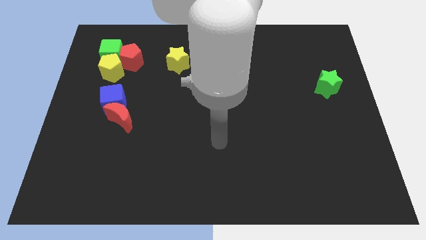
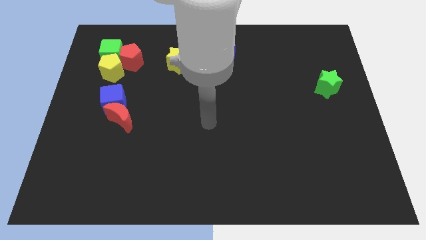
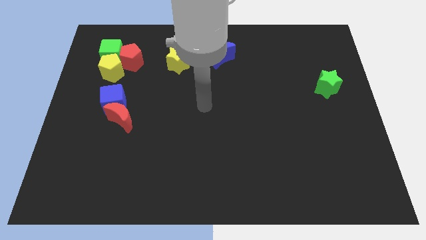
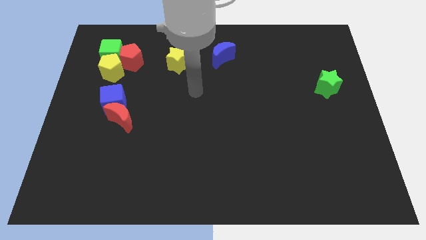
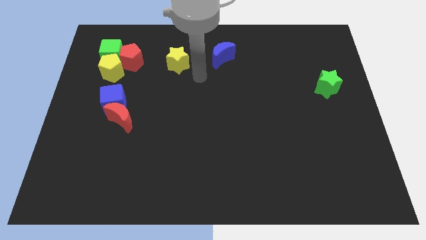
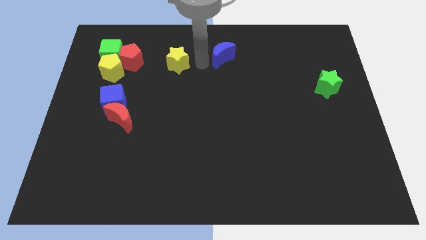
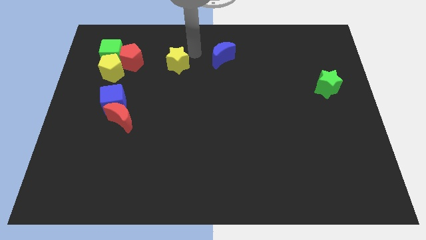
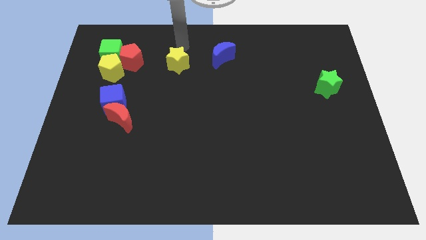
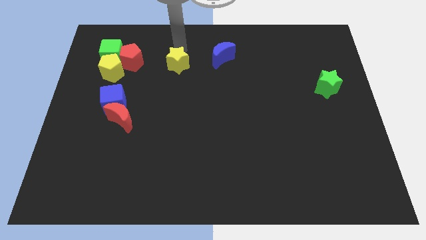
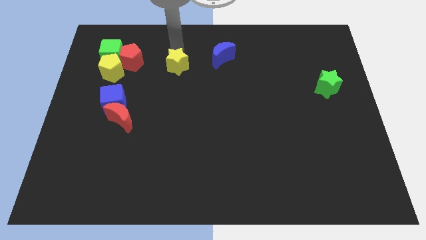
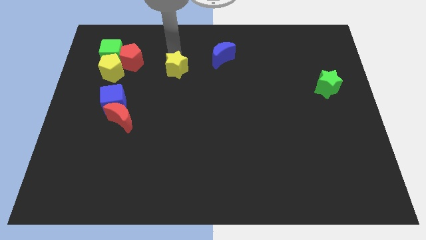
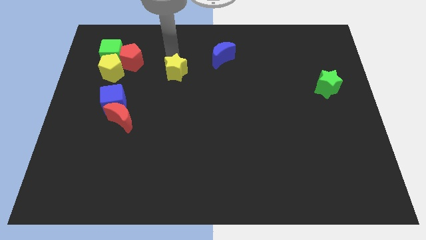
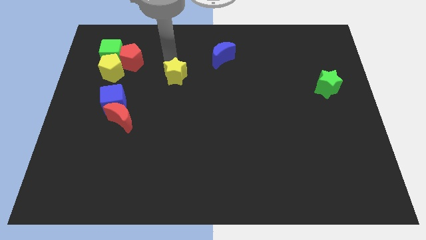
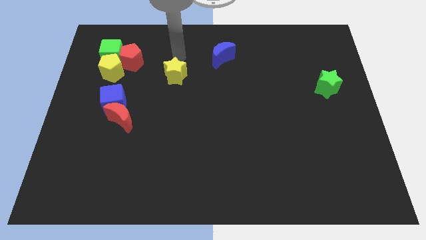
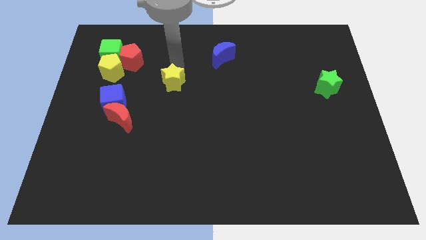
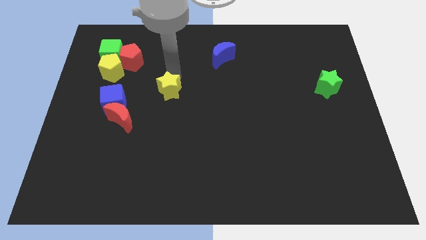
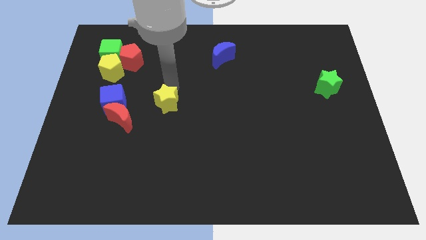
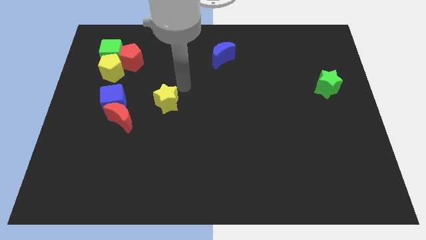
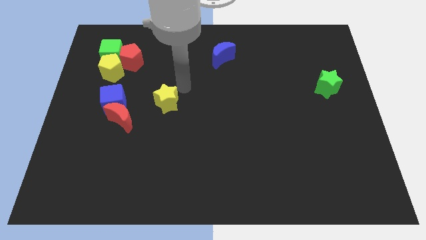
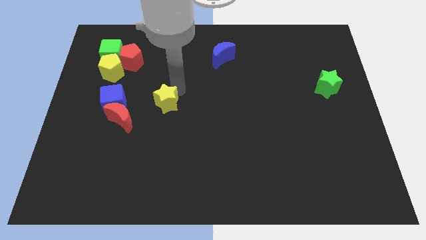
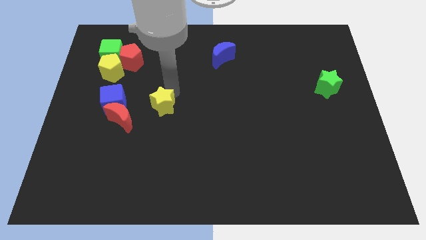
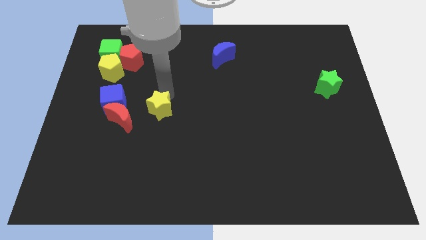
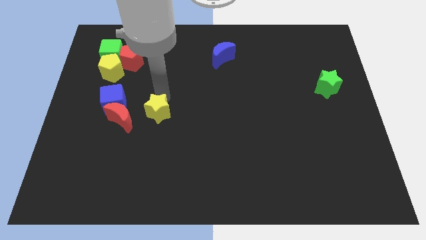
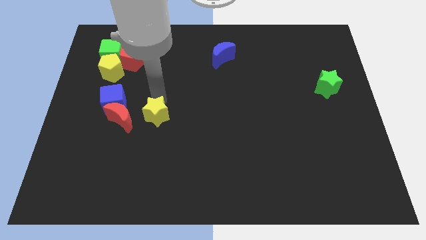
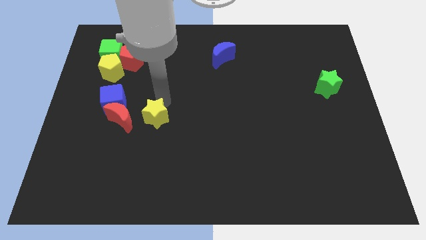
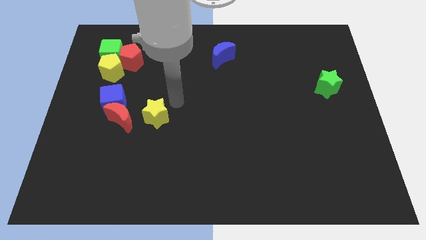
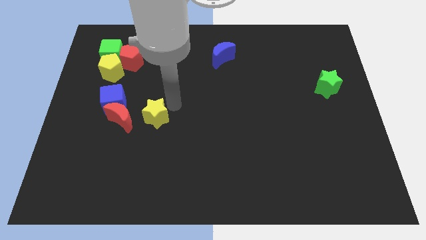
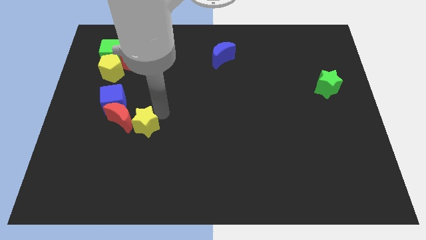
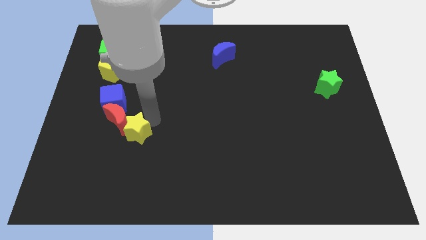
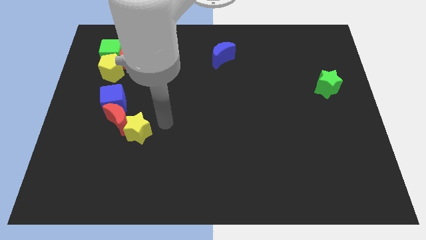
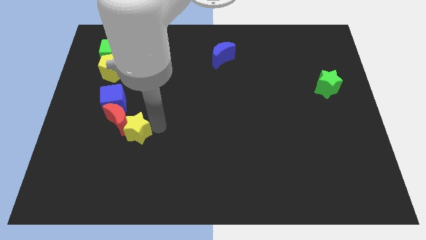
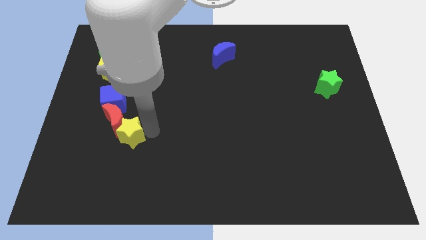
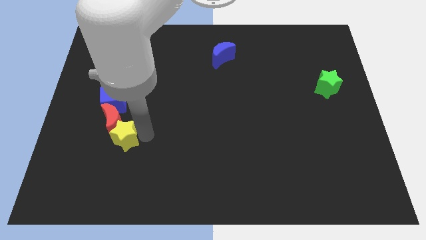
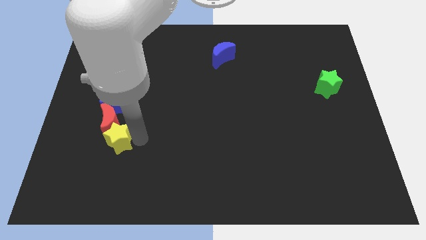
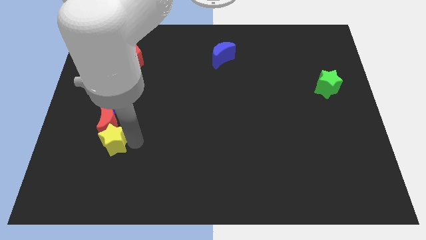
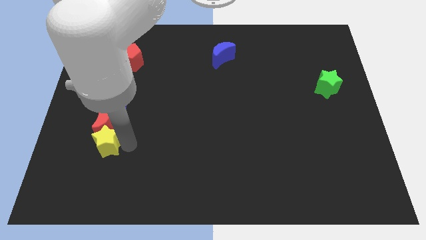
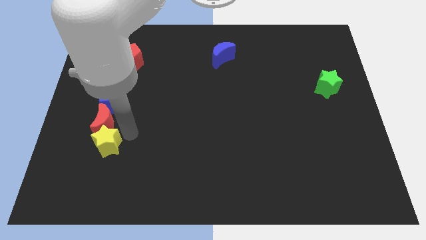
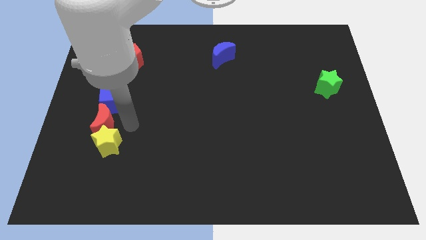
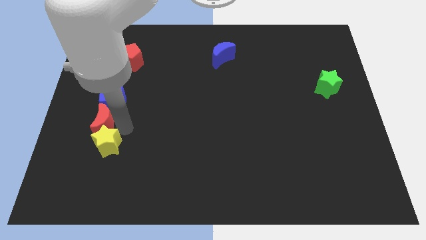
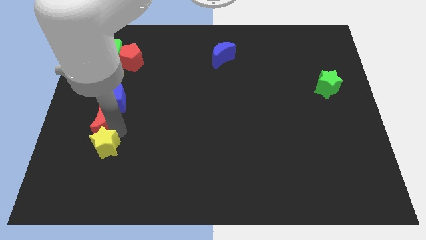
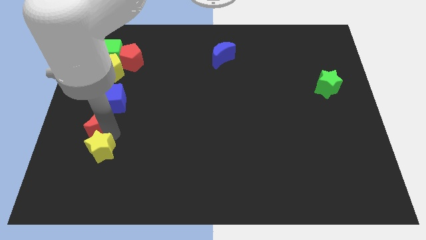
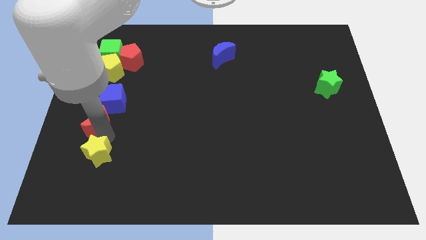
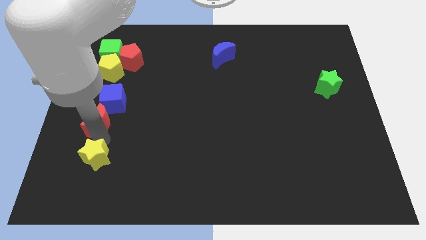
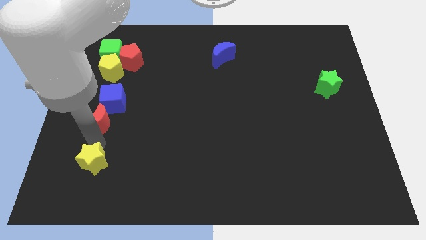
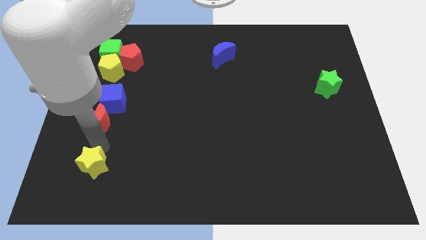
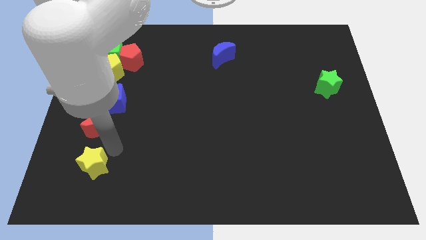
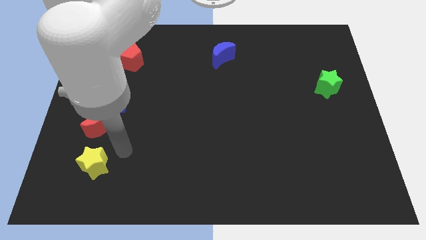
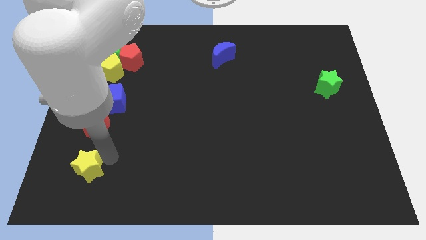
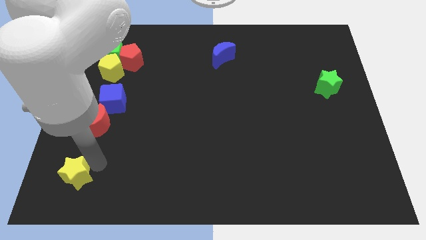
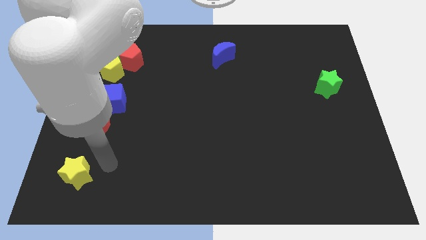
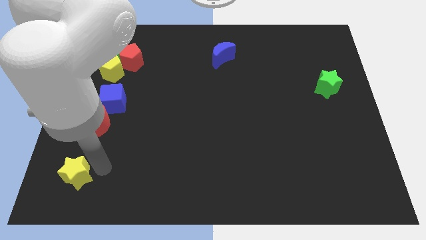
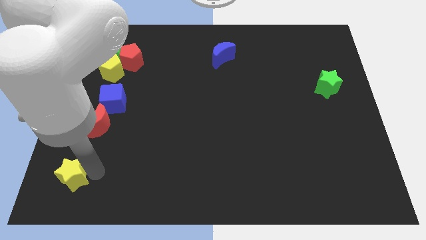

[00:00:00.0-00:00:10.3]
push the yellow star to the lower left corner

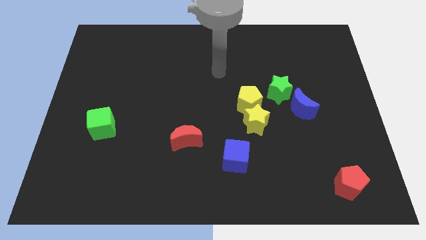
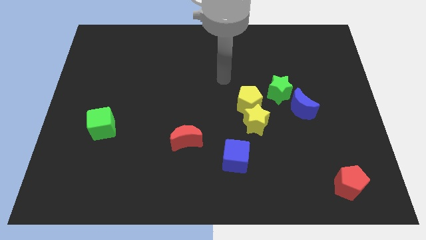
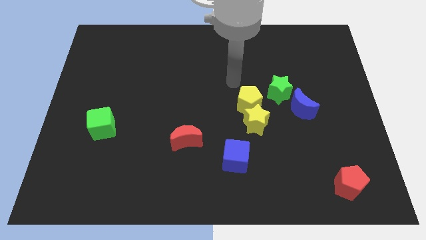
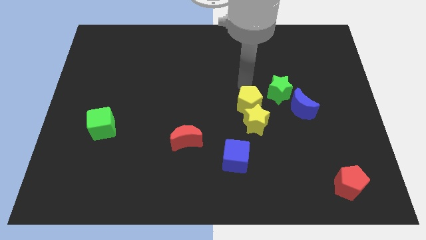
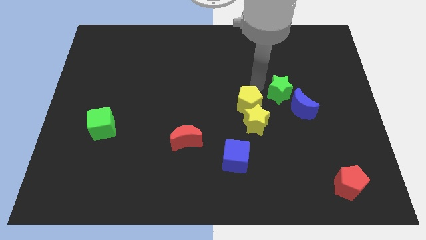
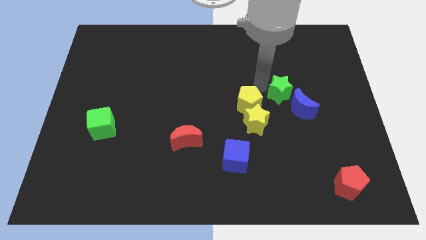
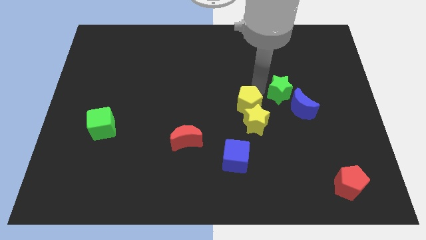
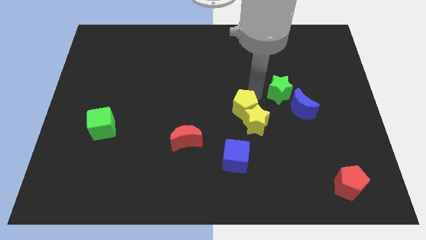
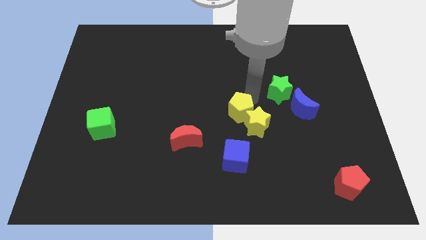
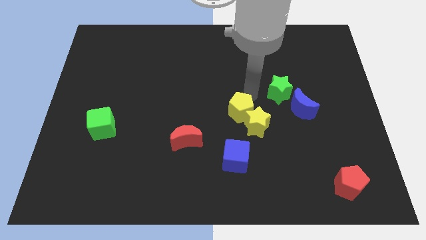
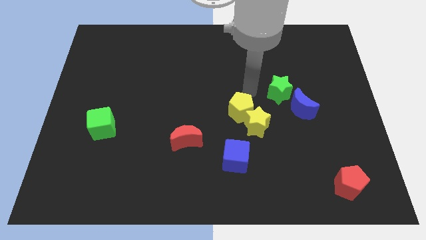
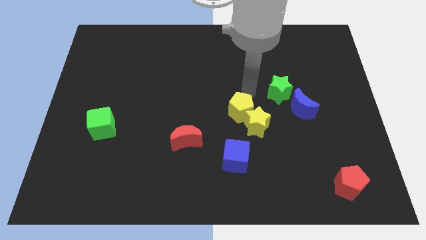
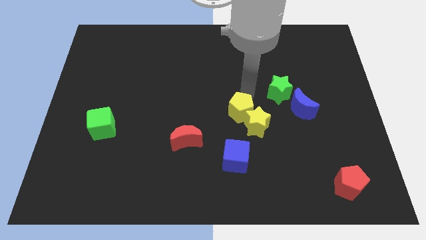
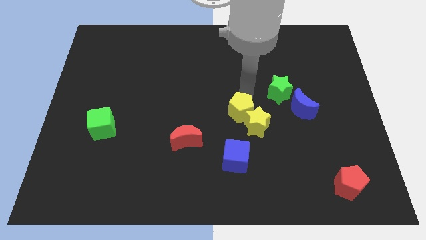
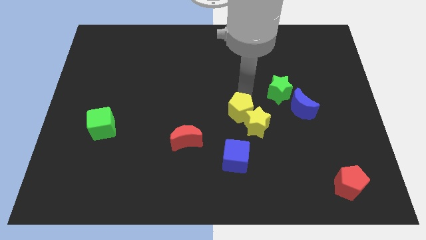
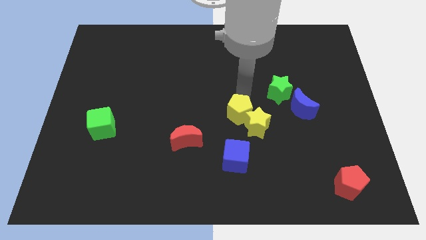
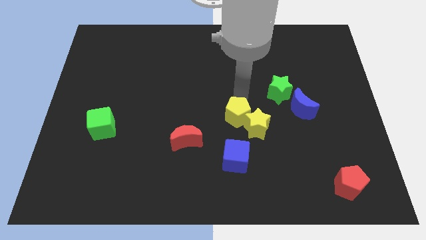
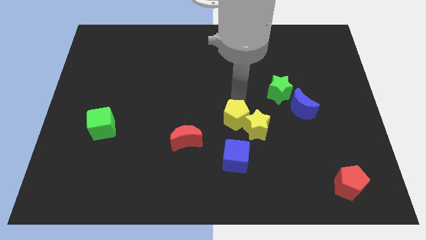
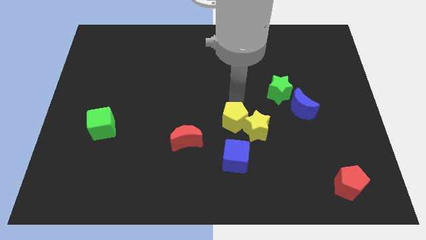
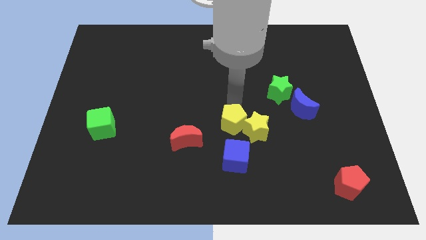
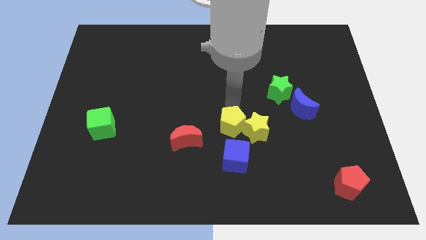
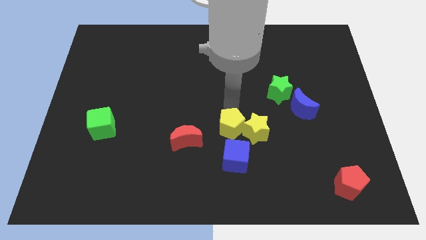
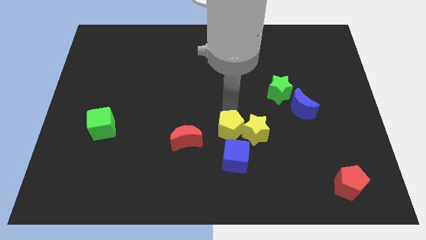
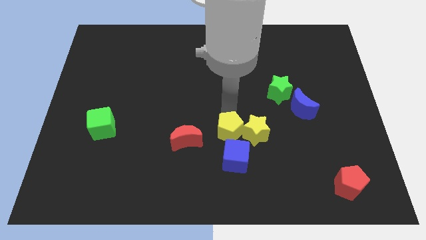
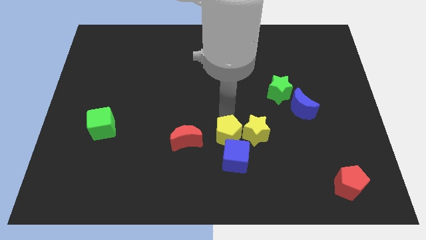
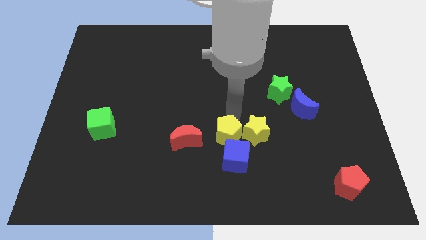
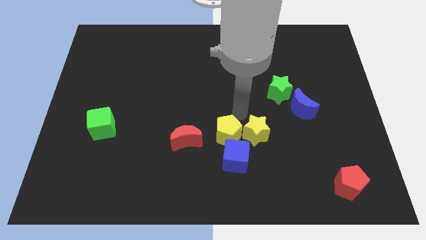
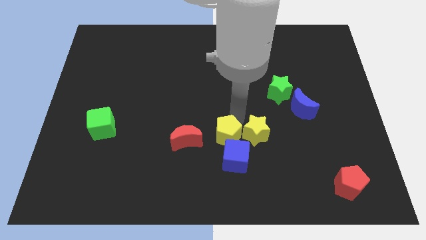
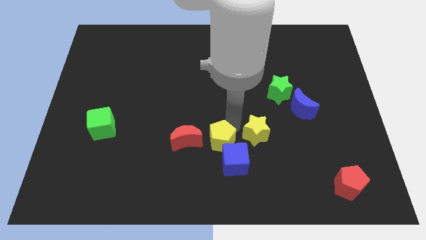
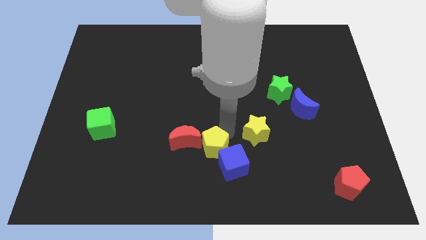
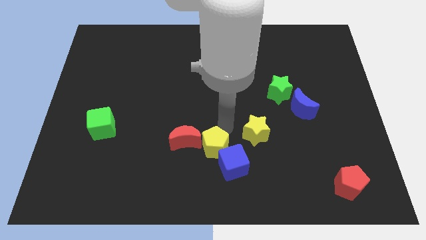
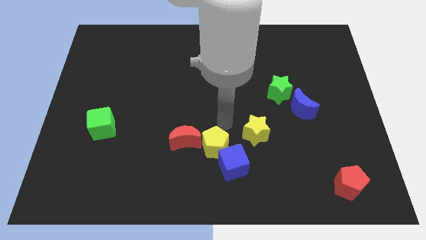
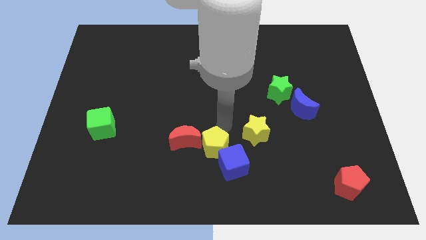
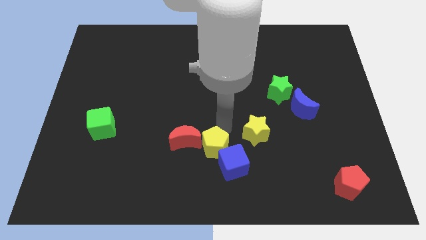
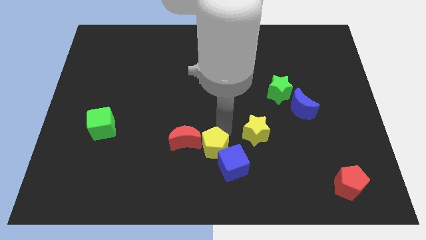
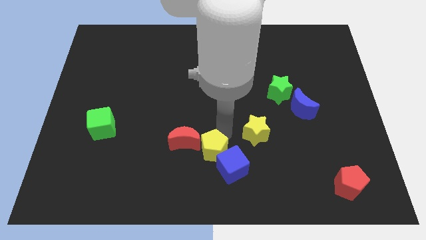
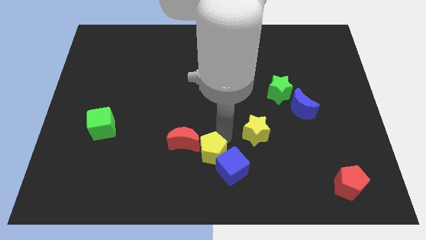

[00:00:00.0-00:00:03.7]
slide the yellow pentagon to the bottom
